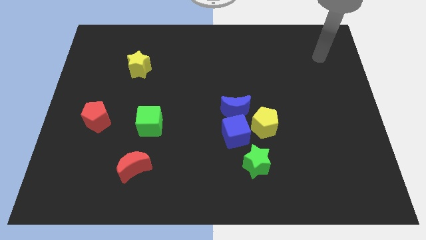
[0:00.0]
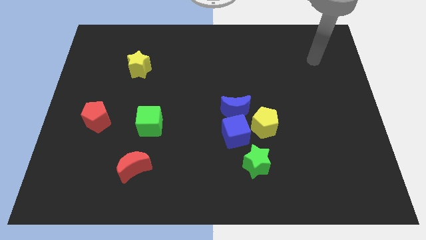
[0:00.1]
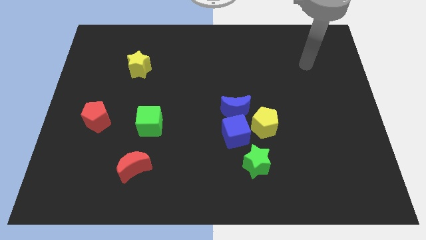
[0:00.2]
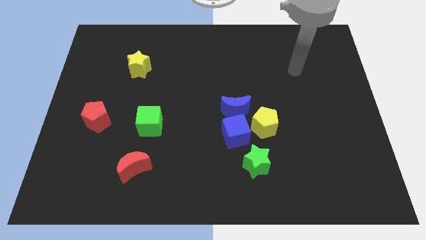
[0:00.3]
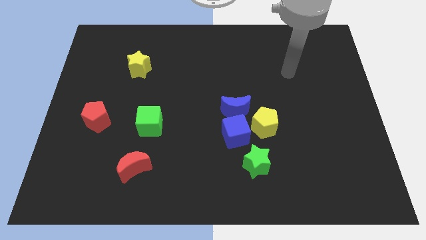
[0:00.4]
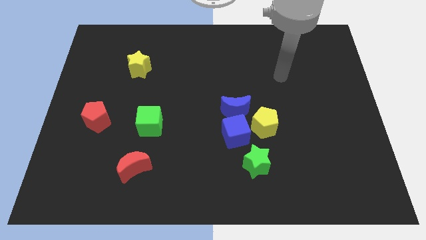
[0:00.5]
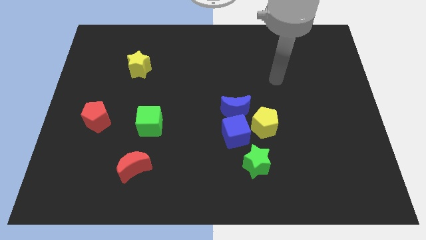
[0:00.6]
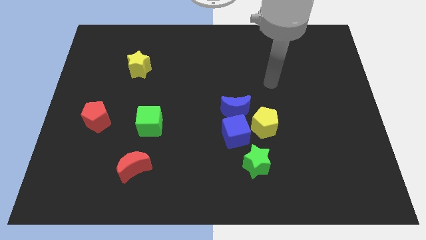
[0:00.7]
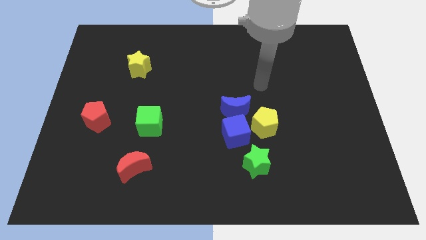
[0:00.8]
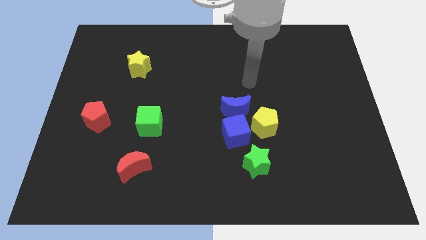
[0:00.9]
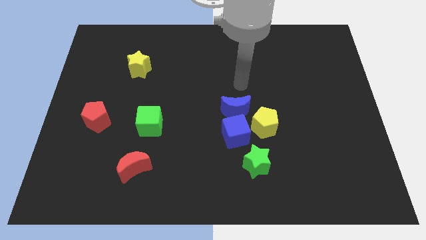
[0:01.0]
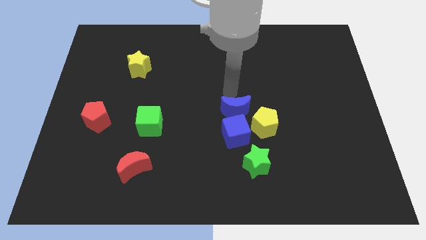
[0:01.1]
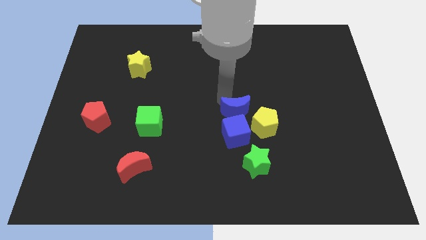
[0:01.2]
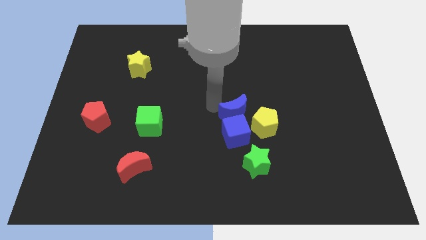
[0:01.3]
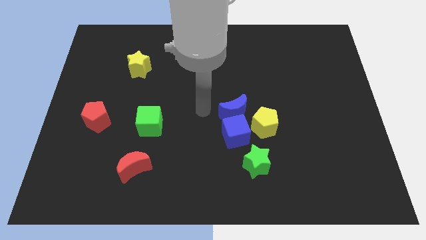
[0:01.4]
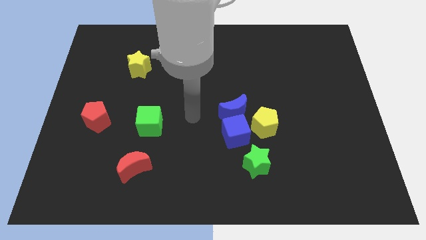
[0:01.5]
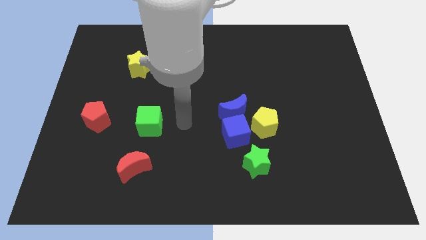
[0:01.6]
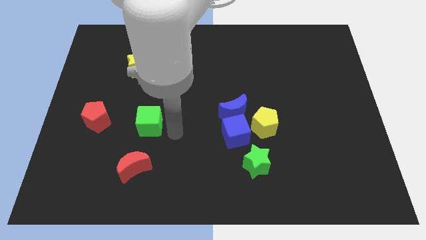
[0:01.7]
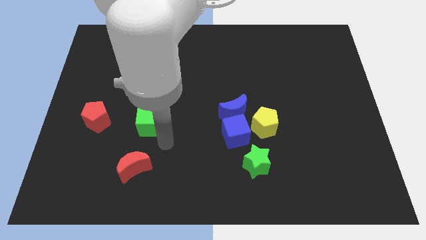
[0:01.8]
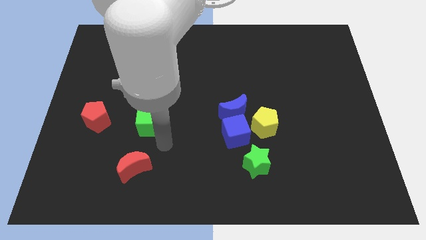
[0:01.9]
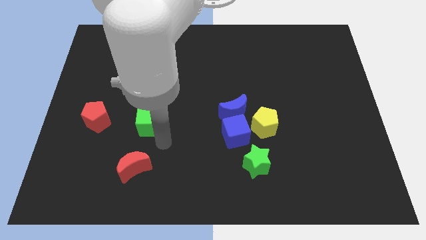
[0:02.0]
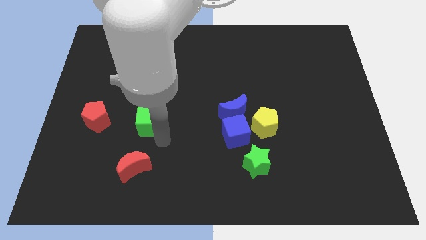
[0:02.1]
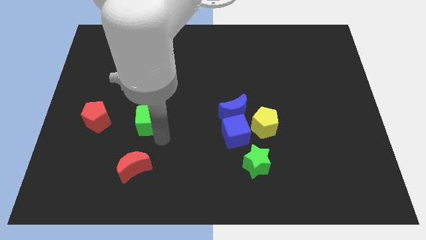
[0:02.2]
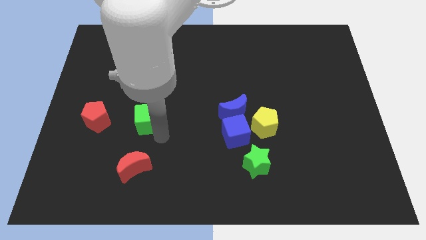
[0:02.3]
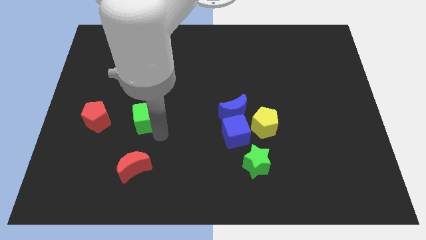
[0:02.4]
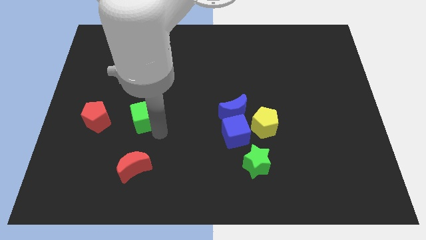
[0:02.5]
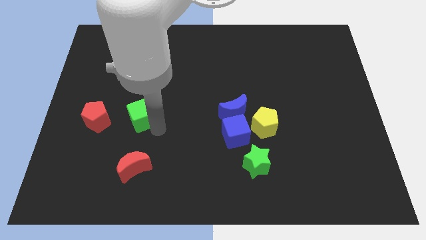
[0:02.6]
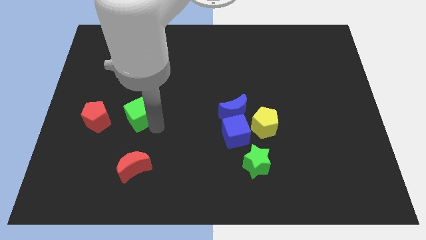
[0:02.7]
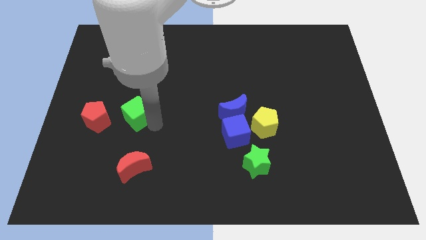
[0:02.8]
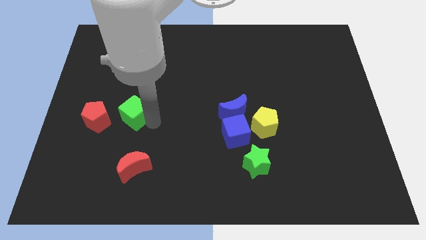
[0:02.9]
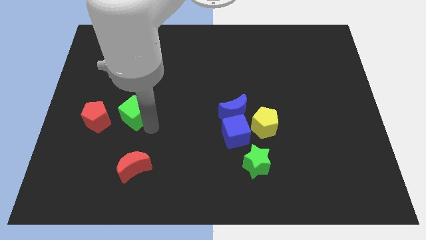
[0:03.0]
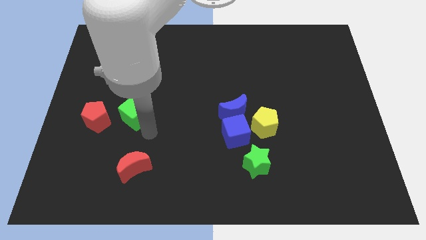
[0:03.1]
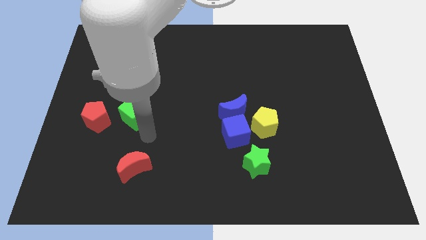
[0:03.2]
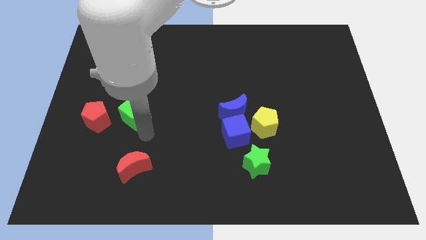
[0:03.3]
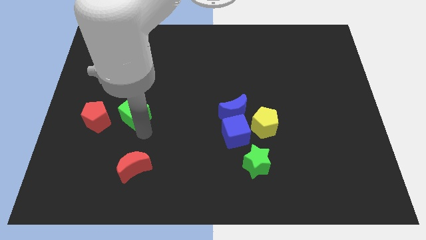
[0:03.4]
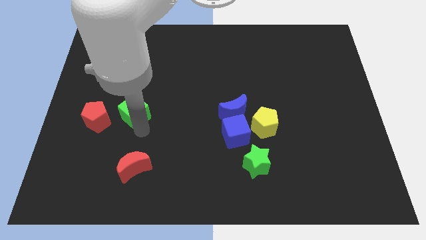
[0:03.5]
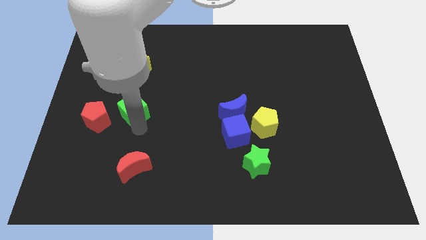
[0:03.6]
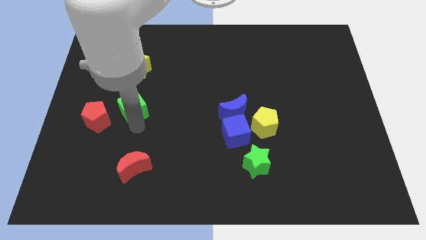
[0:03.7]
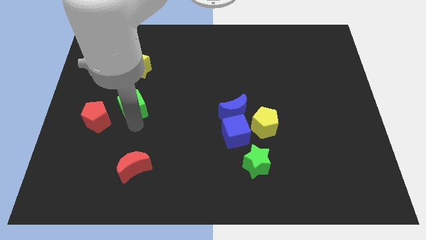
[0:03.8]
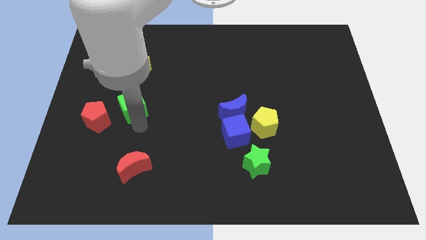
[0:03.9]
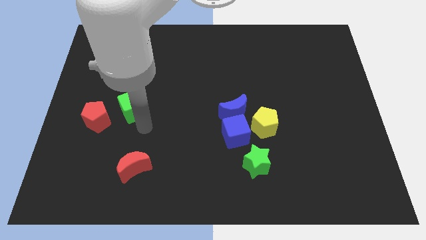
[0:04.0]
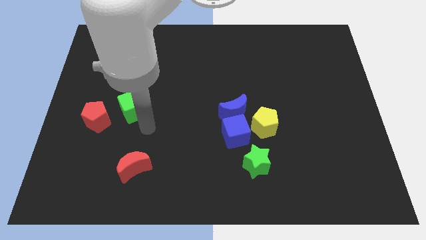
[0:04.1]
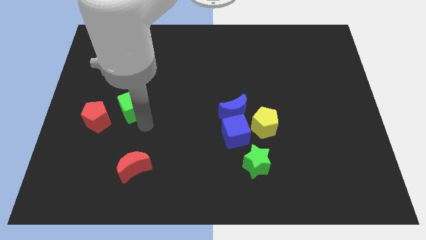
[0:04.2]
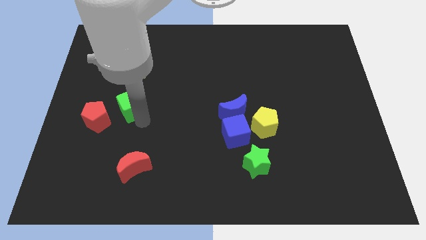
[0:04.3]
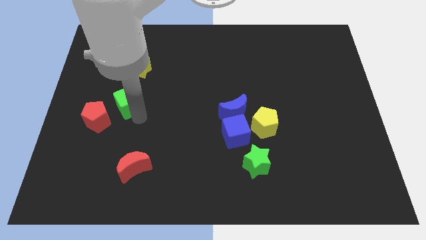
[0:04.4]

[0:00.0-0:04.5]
slightly slide the green cube up and then left

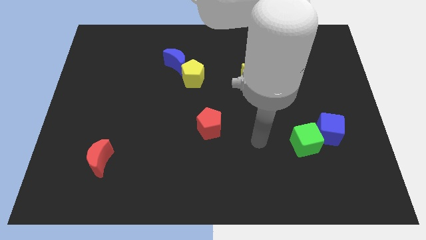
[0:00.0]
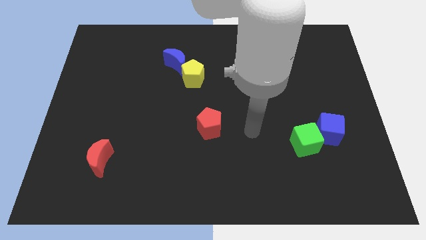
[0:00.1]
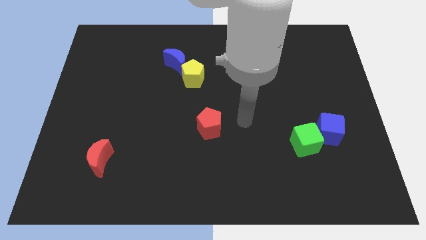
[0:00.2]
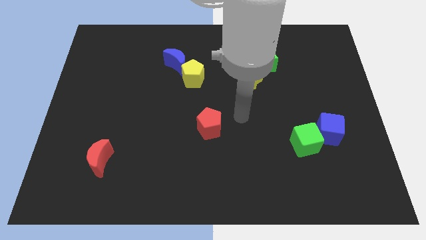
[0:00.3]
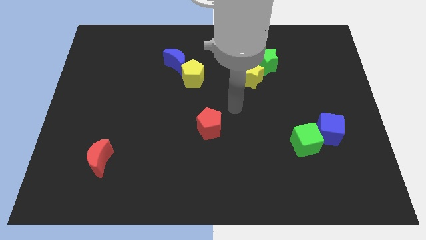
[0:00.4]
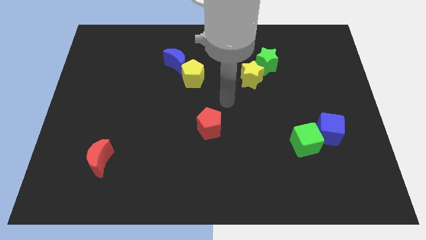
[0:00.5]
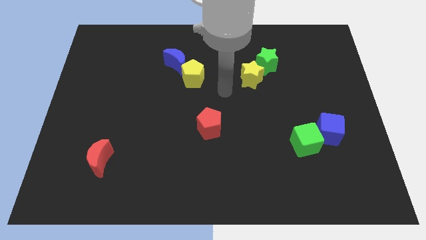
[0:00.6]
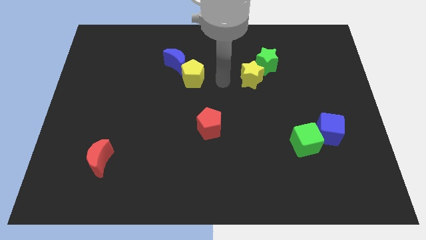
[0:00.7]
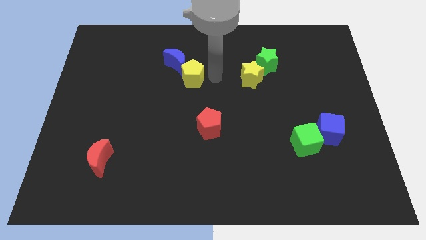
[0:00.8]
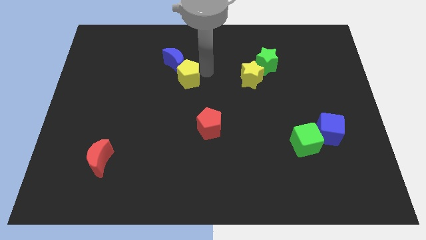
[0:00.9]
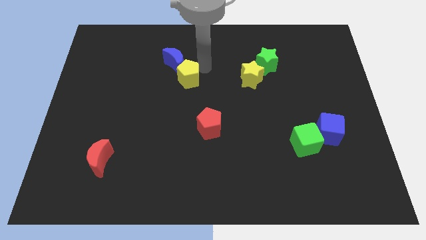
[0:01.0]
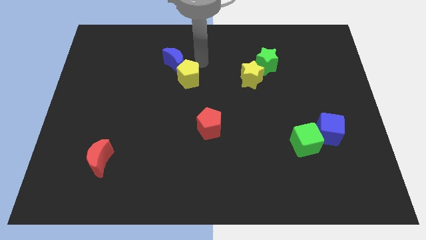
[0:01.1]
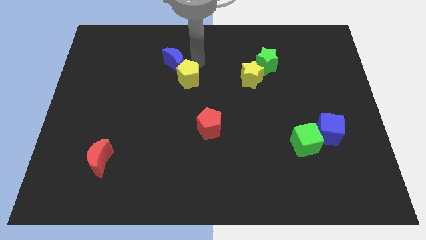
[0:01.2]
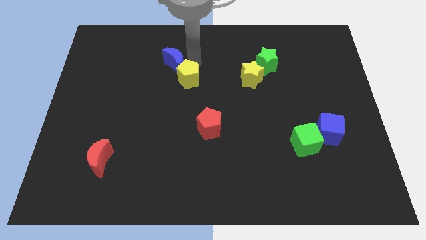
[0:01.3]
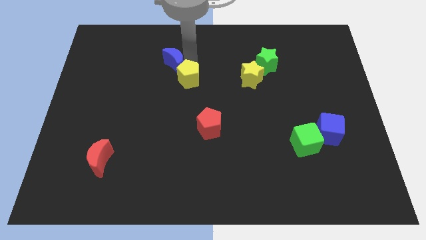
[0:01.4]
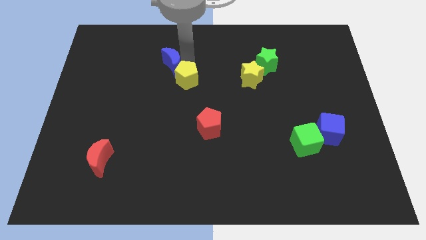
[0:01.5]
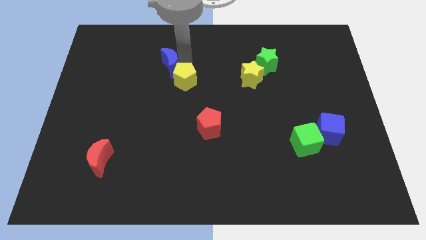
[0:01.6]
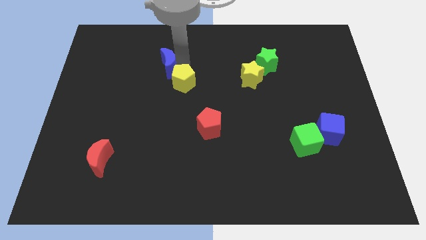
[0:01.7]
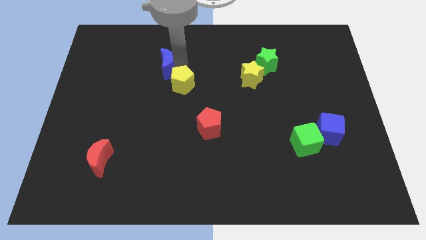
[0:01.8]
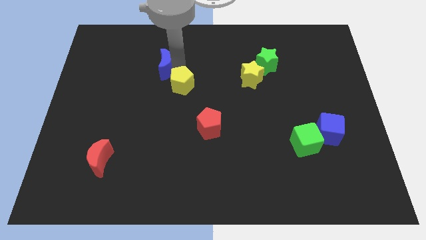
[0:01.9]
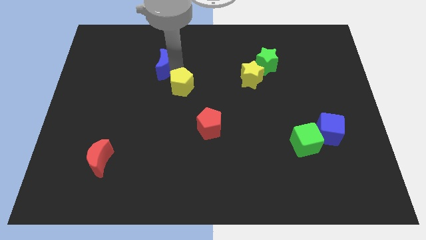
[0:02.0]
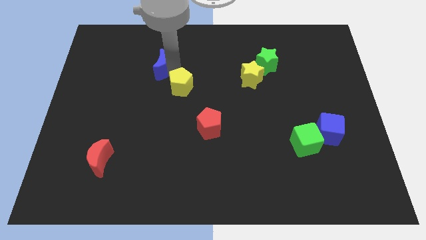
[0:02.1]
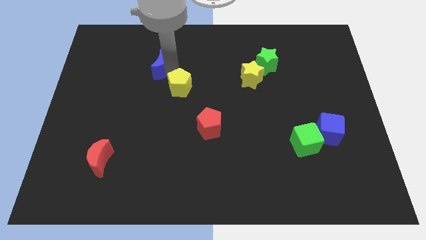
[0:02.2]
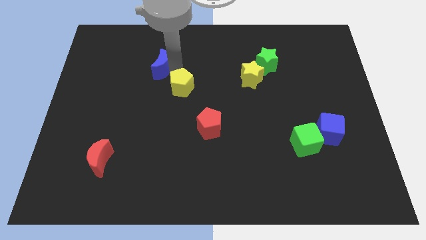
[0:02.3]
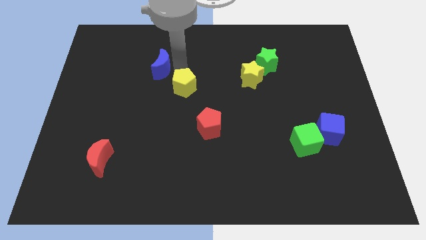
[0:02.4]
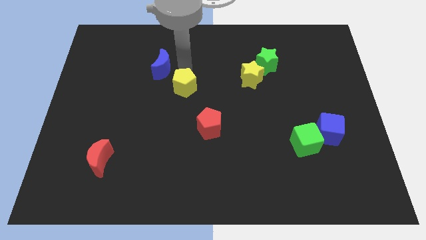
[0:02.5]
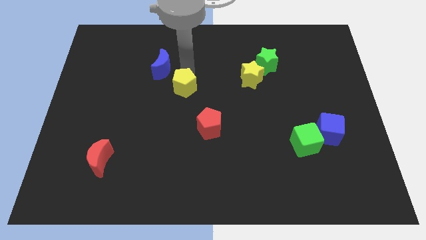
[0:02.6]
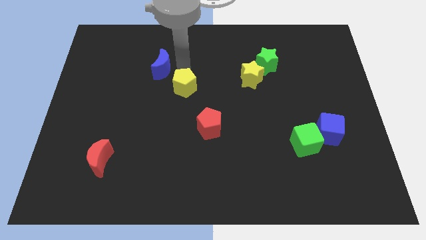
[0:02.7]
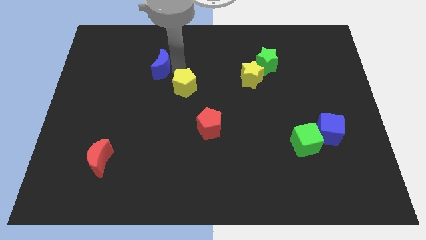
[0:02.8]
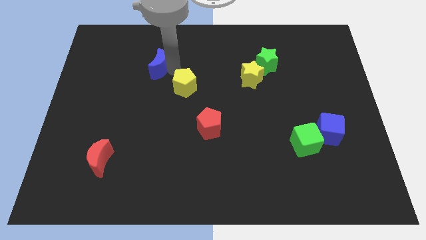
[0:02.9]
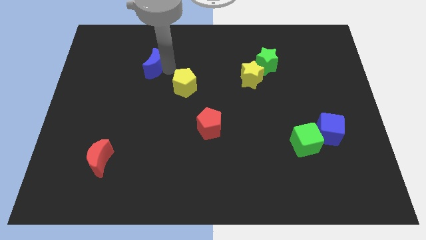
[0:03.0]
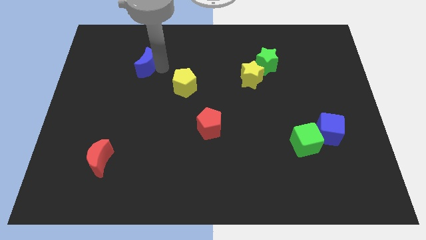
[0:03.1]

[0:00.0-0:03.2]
push the blue moon to the left slightly

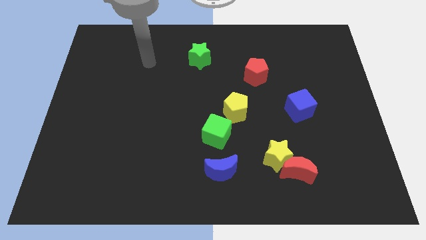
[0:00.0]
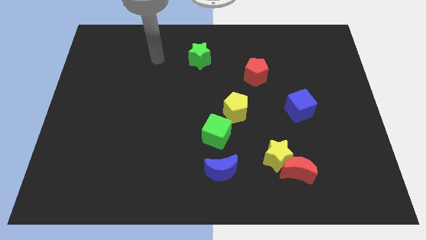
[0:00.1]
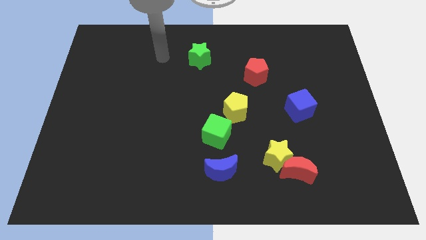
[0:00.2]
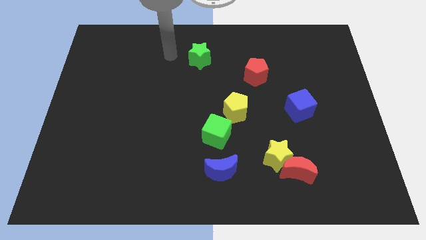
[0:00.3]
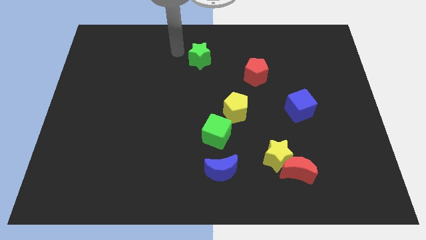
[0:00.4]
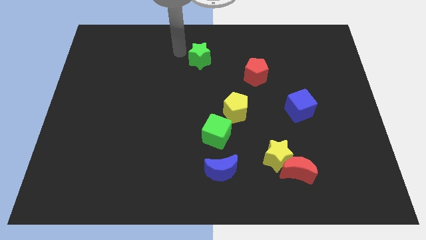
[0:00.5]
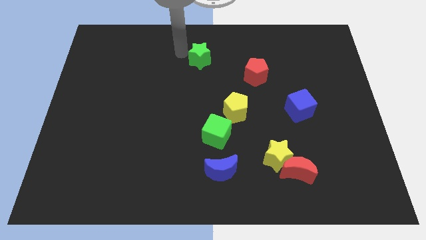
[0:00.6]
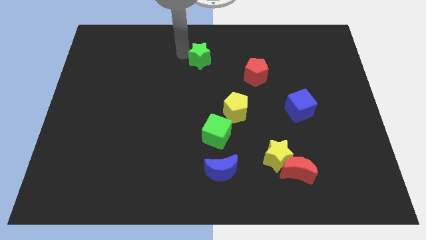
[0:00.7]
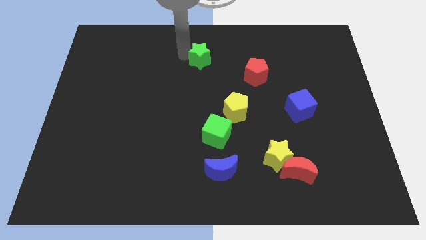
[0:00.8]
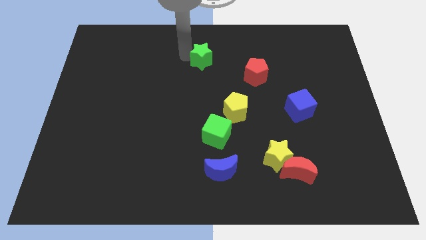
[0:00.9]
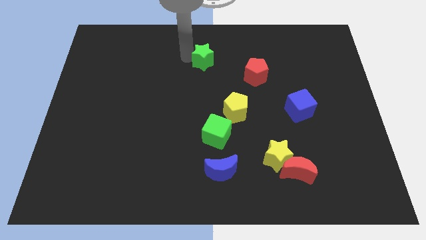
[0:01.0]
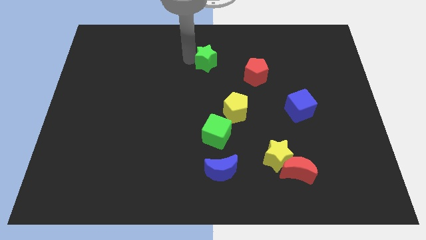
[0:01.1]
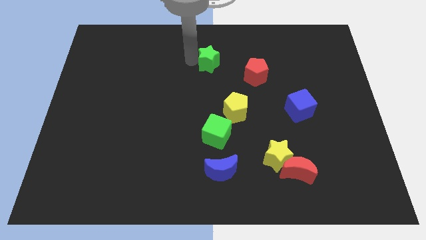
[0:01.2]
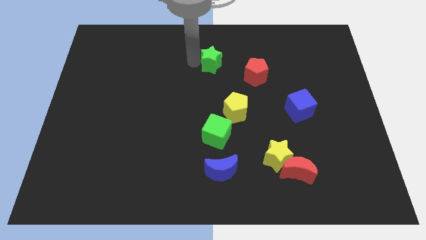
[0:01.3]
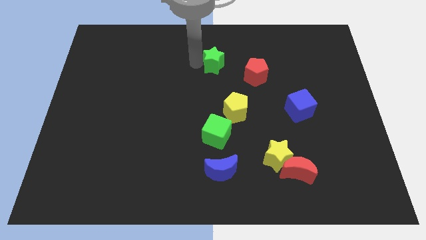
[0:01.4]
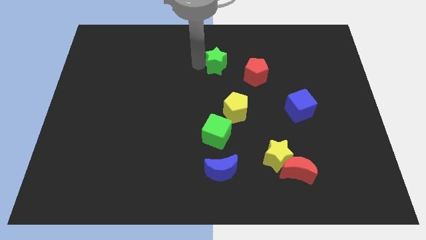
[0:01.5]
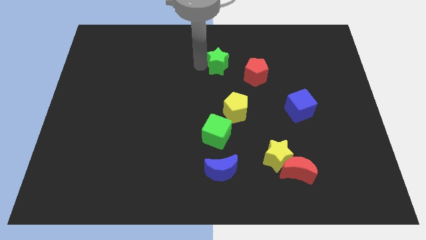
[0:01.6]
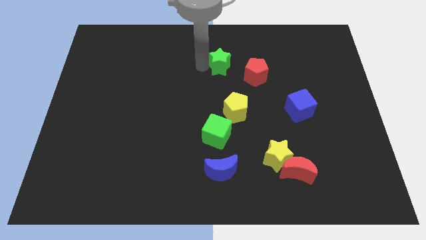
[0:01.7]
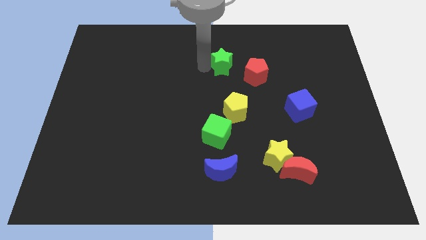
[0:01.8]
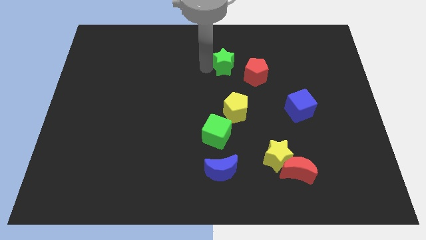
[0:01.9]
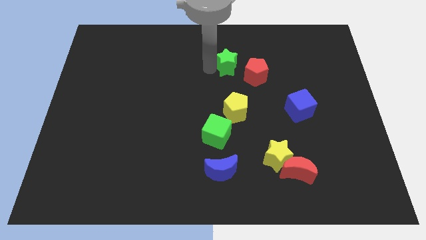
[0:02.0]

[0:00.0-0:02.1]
slide the green star a little bit right
